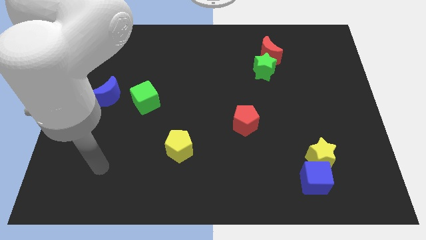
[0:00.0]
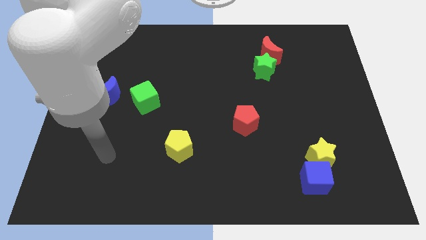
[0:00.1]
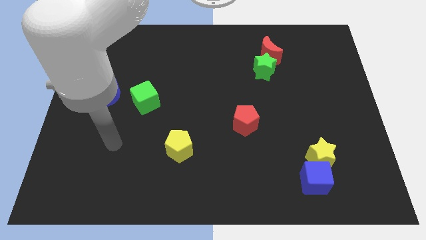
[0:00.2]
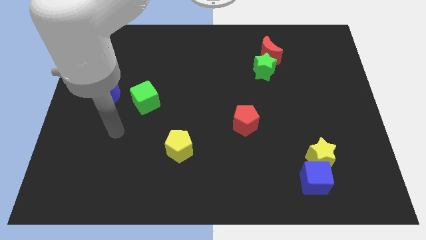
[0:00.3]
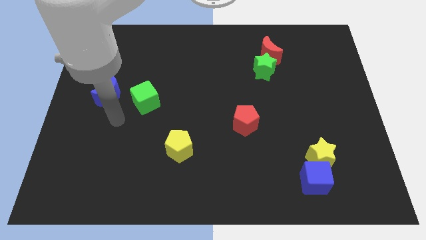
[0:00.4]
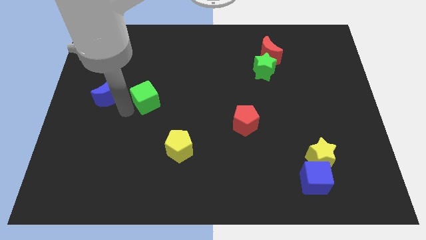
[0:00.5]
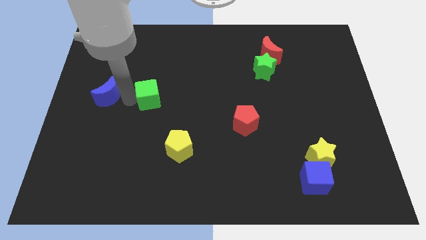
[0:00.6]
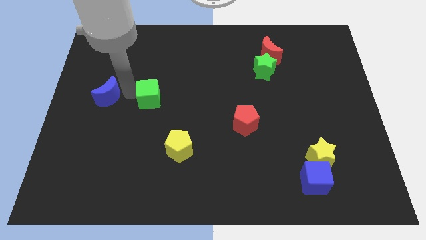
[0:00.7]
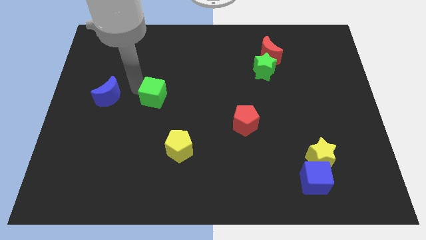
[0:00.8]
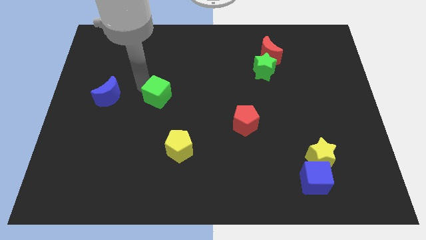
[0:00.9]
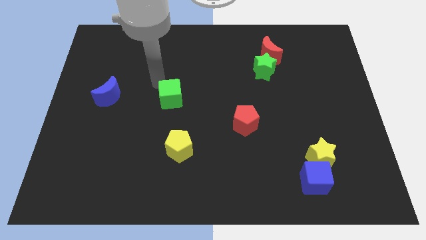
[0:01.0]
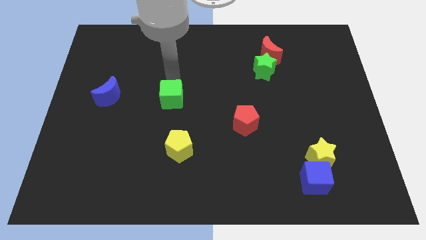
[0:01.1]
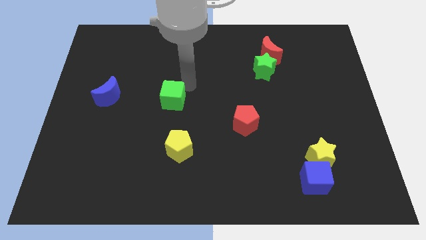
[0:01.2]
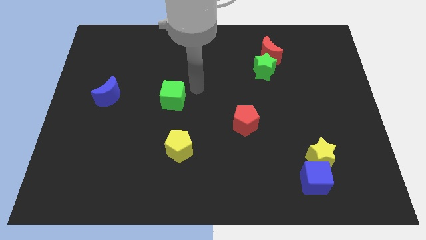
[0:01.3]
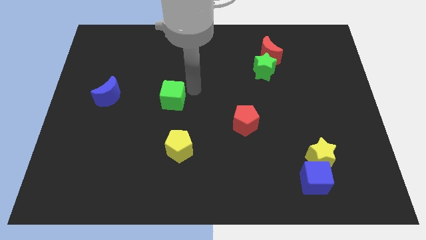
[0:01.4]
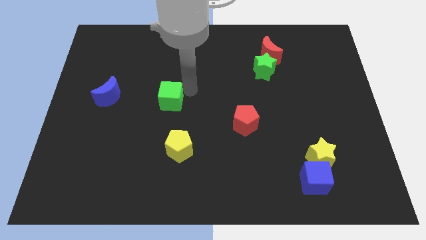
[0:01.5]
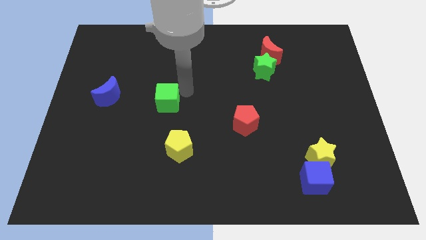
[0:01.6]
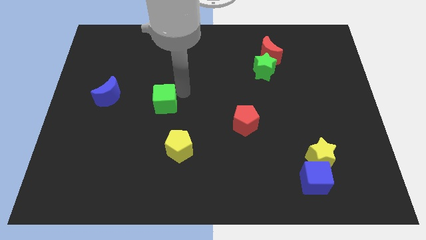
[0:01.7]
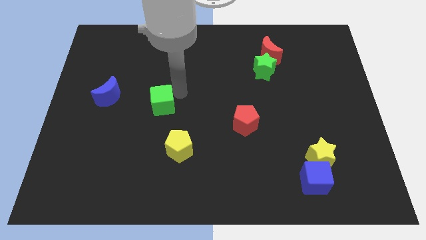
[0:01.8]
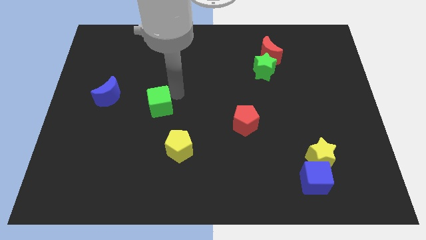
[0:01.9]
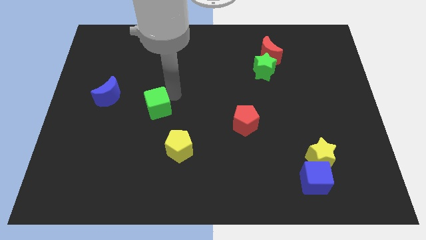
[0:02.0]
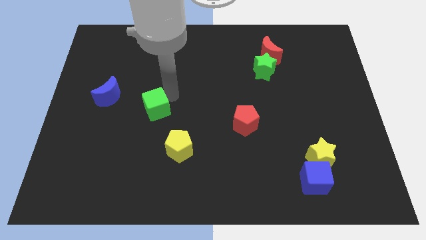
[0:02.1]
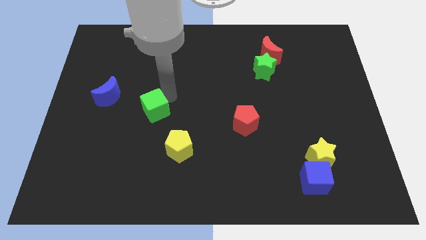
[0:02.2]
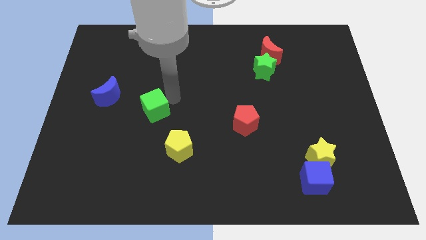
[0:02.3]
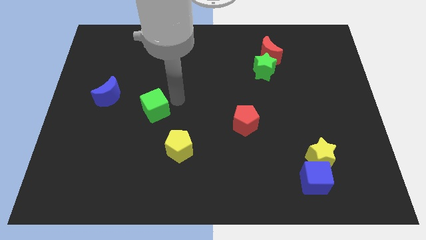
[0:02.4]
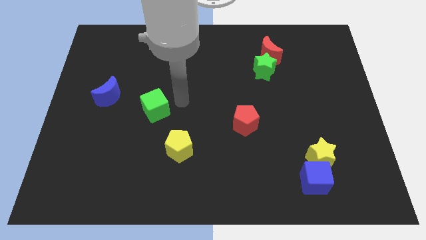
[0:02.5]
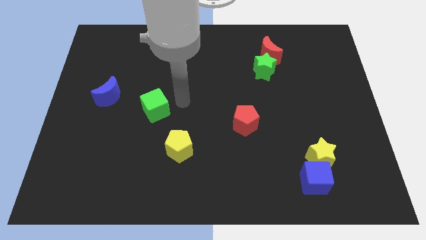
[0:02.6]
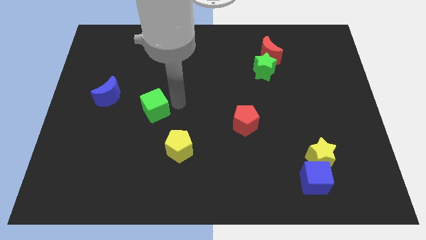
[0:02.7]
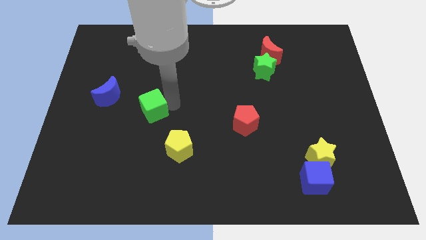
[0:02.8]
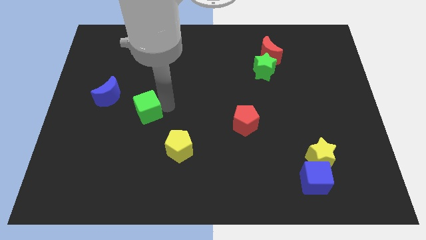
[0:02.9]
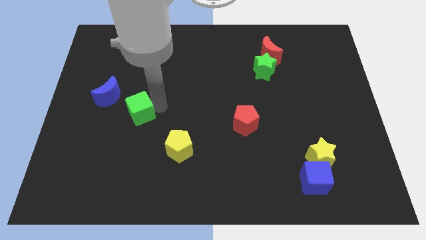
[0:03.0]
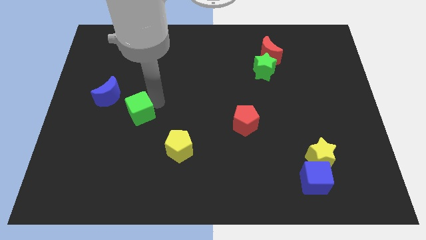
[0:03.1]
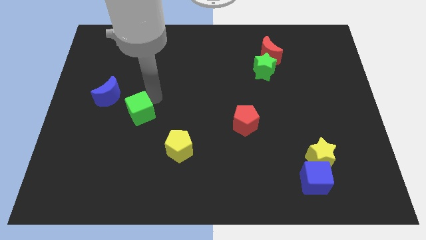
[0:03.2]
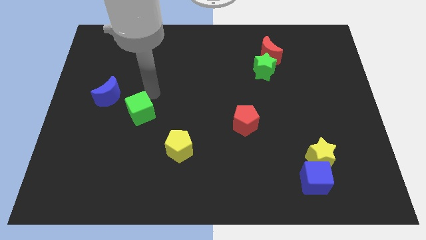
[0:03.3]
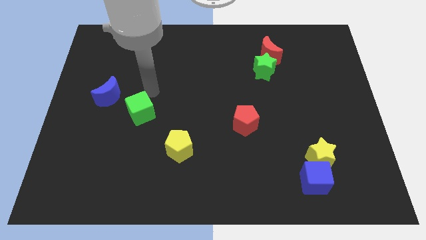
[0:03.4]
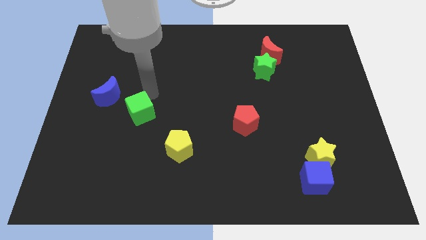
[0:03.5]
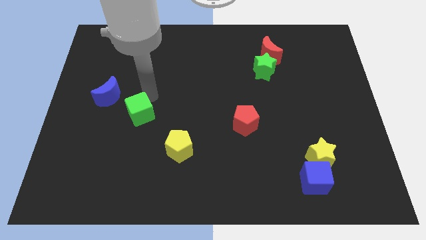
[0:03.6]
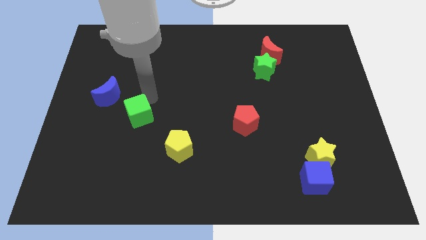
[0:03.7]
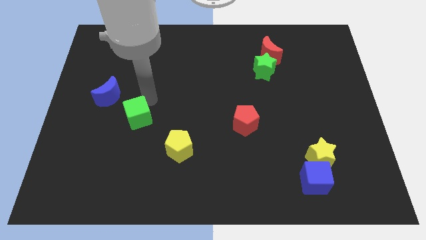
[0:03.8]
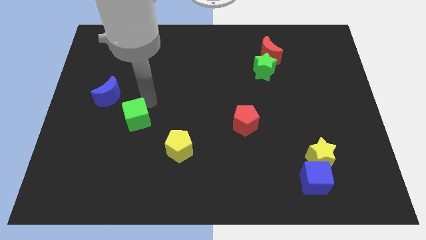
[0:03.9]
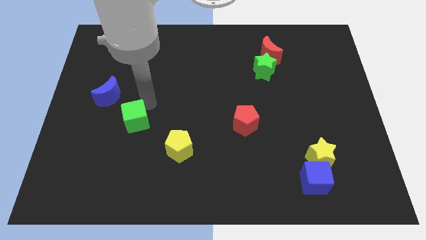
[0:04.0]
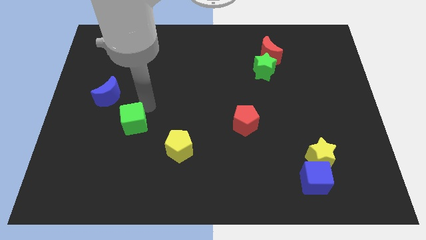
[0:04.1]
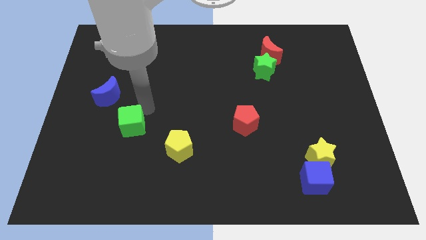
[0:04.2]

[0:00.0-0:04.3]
push the green cube slightly down

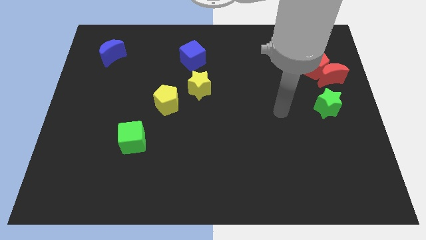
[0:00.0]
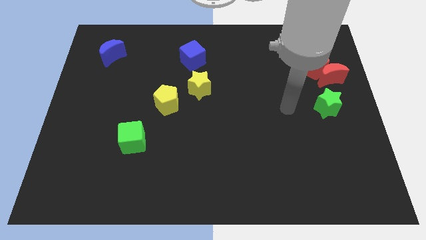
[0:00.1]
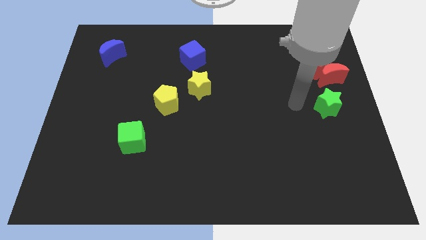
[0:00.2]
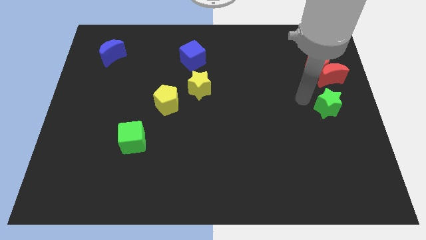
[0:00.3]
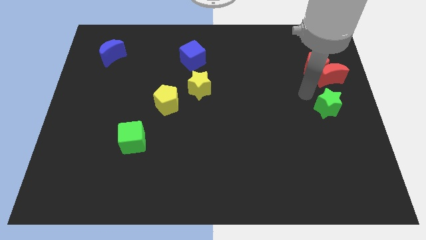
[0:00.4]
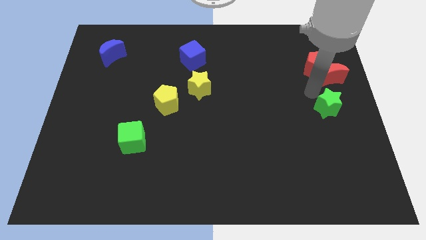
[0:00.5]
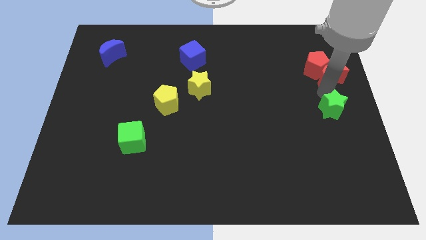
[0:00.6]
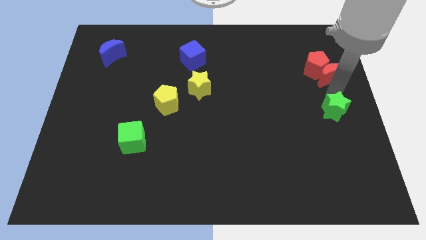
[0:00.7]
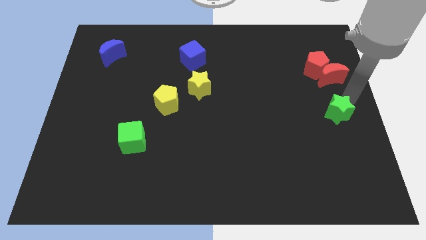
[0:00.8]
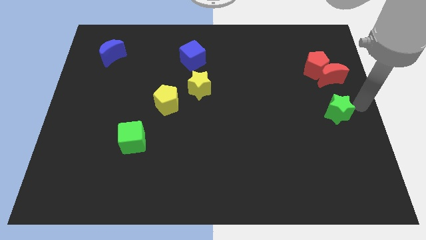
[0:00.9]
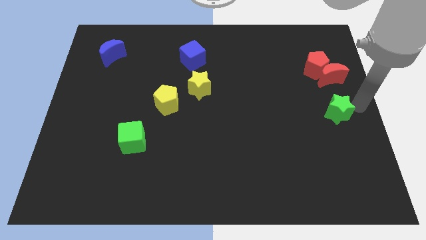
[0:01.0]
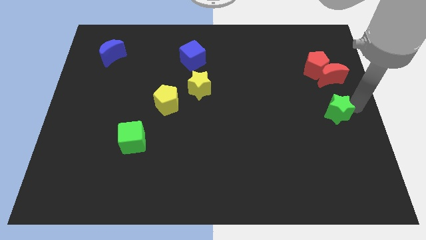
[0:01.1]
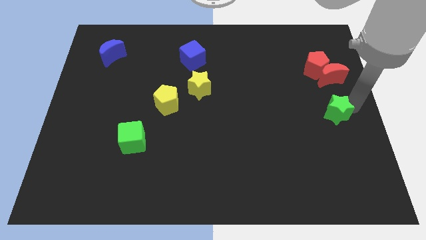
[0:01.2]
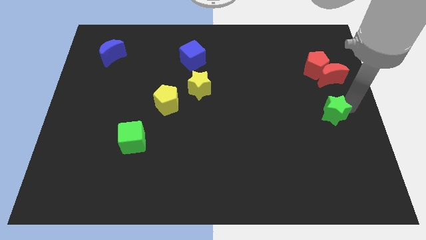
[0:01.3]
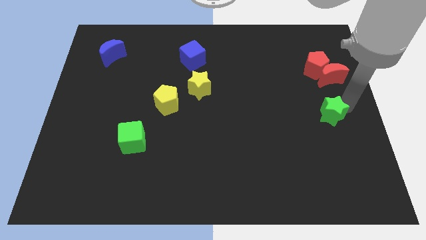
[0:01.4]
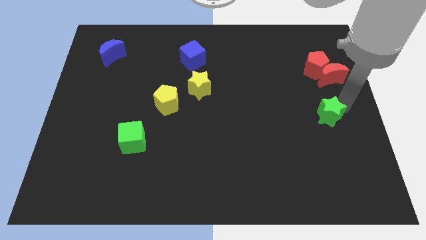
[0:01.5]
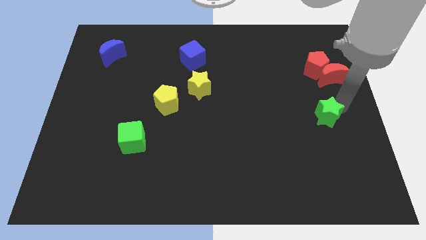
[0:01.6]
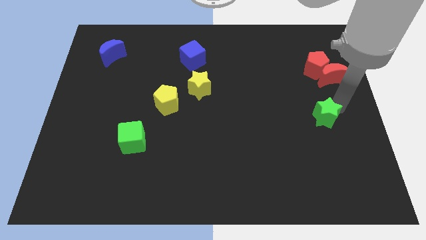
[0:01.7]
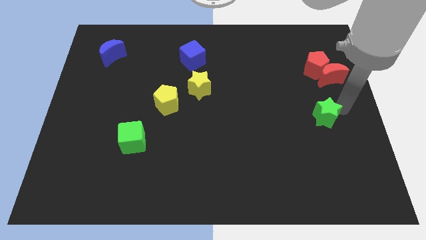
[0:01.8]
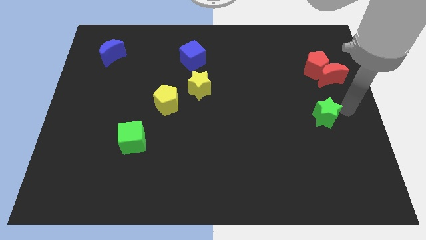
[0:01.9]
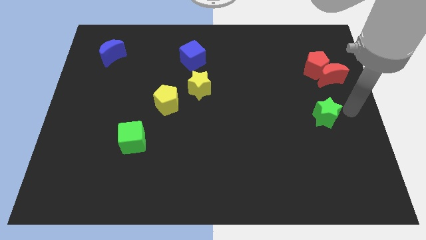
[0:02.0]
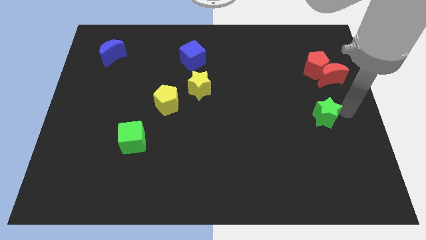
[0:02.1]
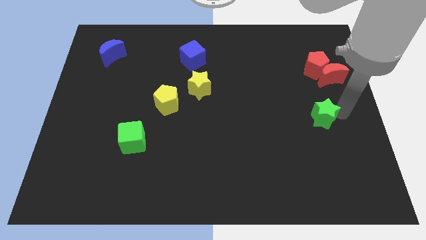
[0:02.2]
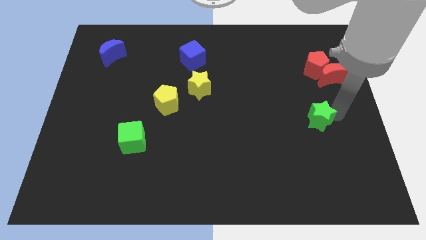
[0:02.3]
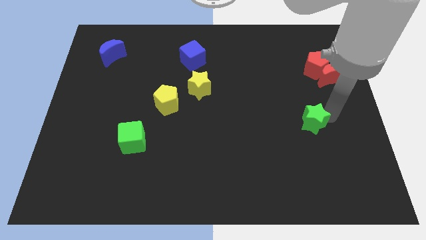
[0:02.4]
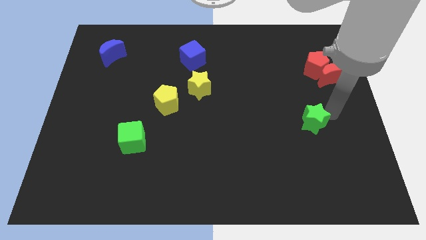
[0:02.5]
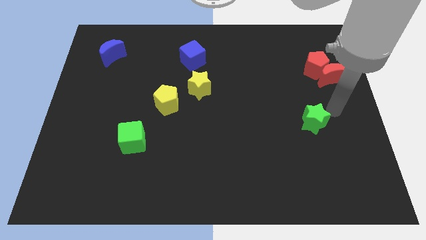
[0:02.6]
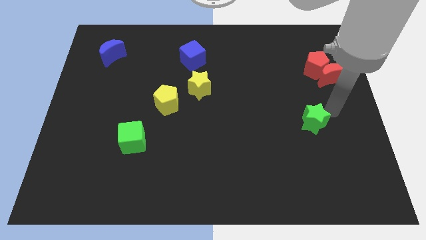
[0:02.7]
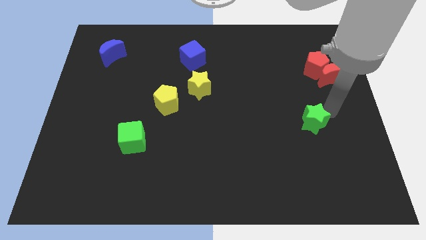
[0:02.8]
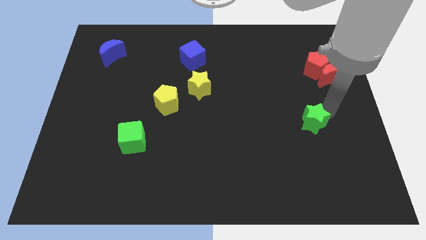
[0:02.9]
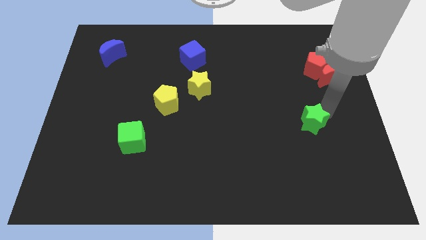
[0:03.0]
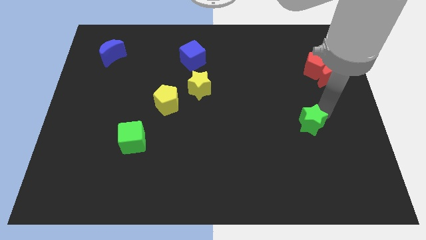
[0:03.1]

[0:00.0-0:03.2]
slightly push the green star diagonally downwards and to the left

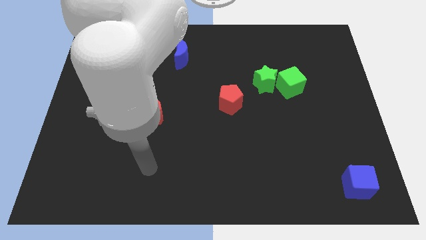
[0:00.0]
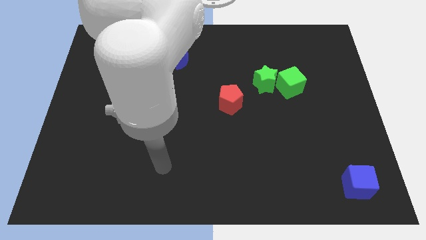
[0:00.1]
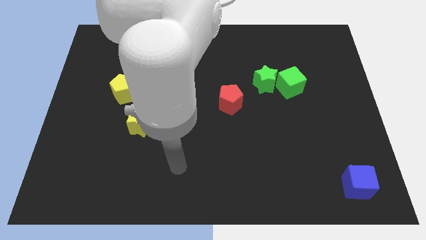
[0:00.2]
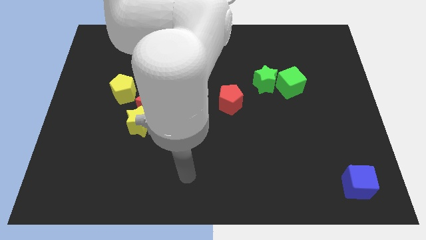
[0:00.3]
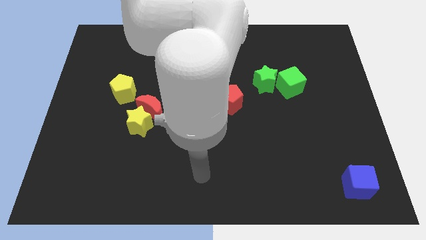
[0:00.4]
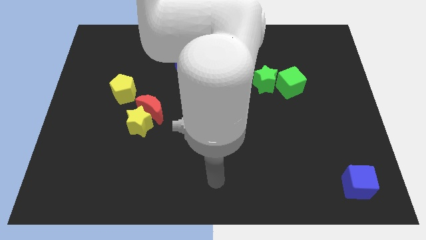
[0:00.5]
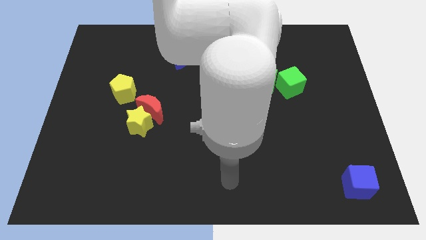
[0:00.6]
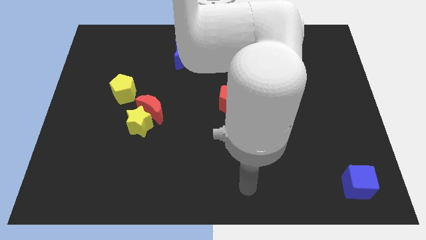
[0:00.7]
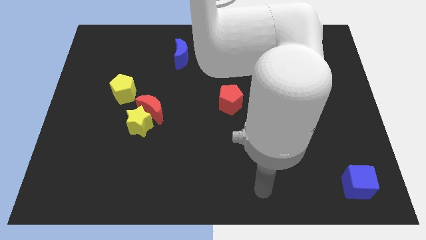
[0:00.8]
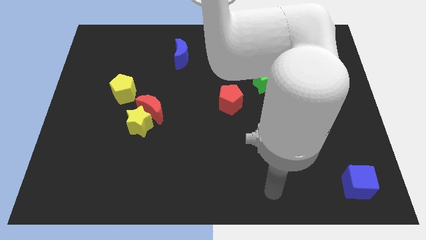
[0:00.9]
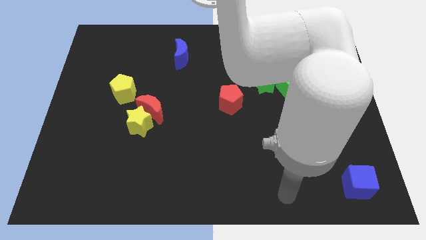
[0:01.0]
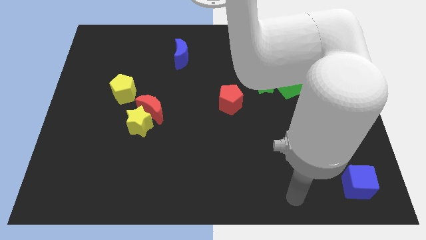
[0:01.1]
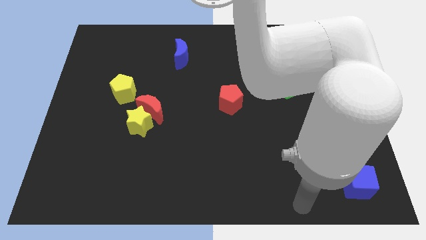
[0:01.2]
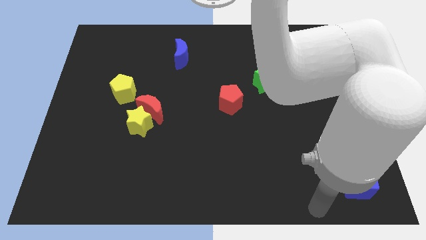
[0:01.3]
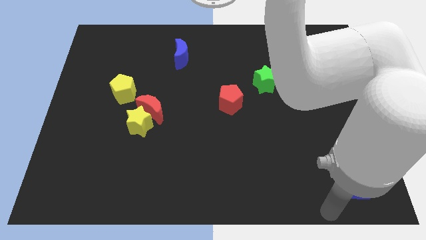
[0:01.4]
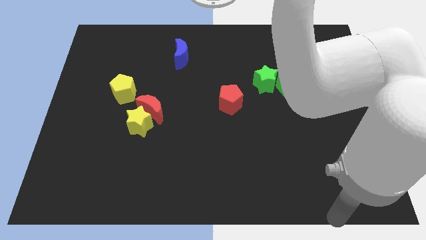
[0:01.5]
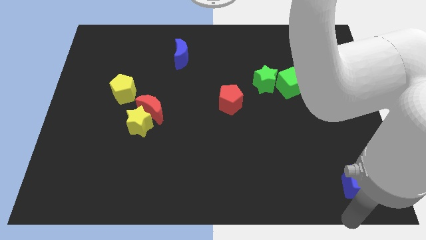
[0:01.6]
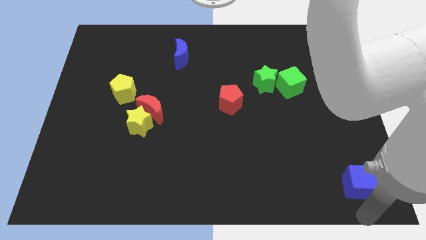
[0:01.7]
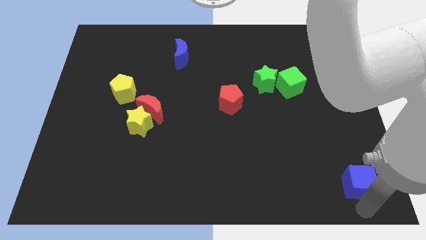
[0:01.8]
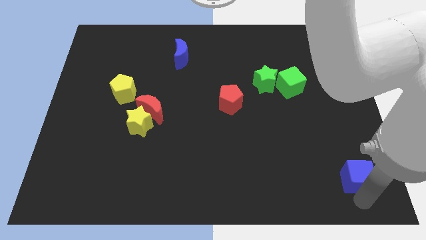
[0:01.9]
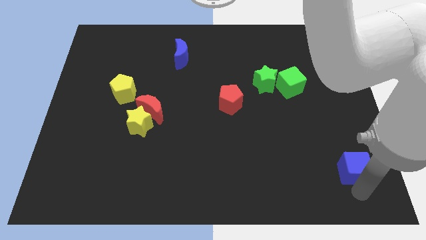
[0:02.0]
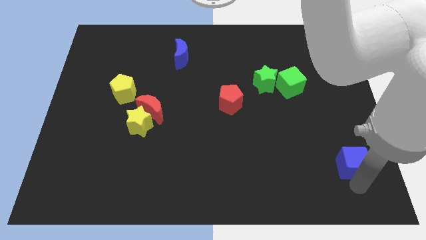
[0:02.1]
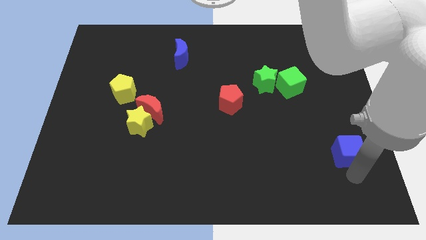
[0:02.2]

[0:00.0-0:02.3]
slightly move the blue cube upwards
